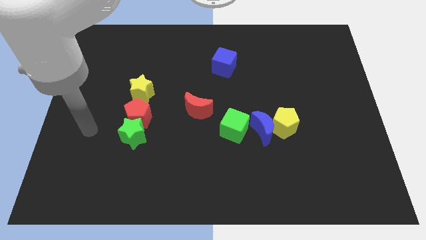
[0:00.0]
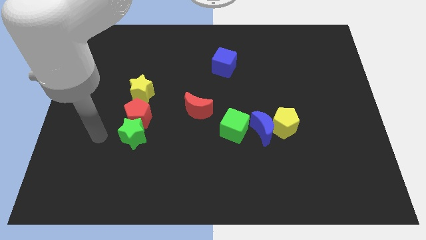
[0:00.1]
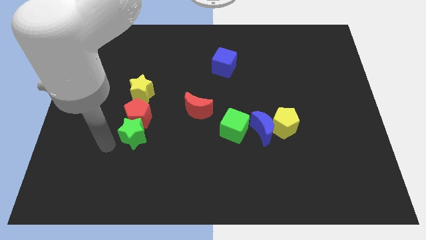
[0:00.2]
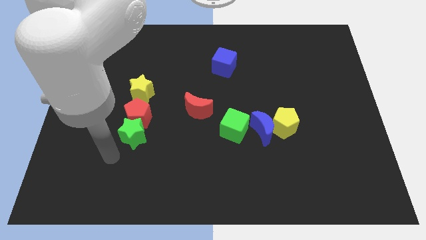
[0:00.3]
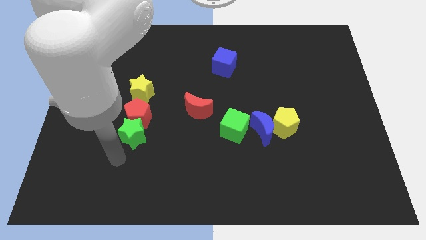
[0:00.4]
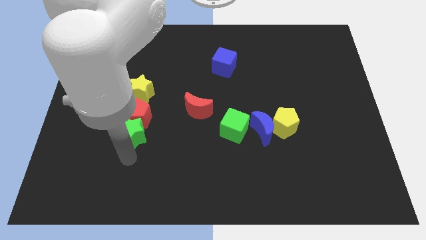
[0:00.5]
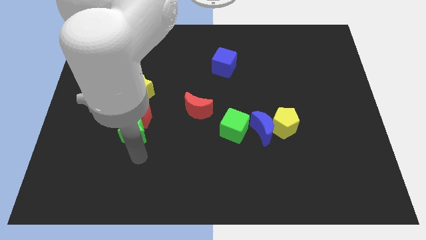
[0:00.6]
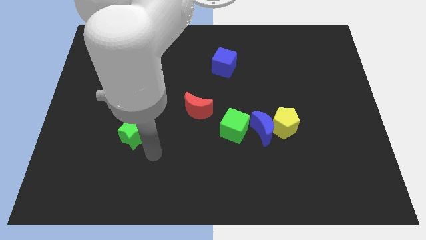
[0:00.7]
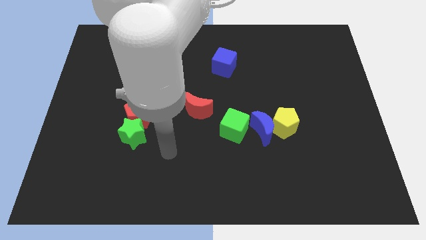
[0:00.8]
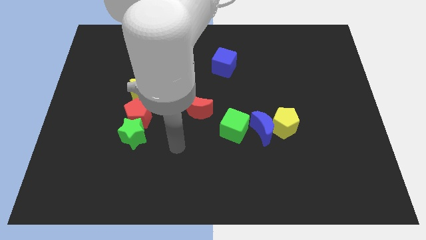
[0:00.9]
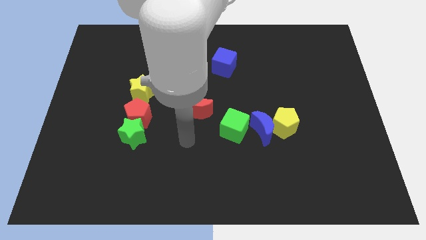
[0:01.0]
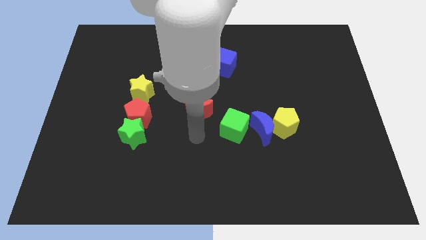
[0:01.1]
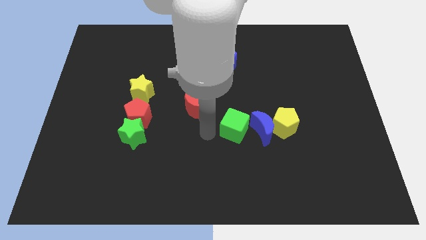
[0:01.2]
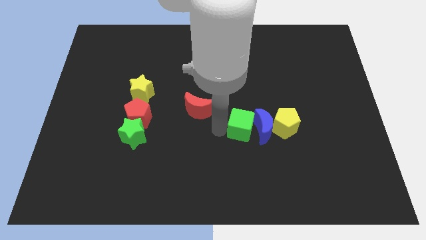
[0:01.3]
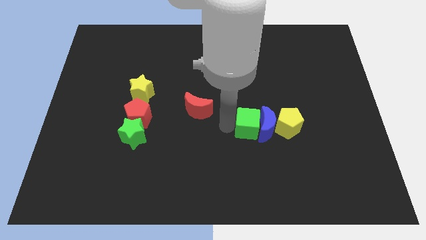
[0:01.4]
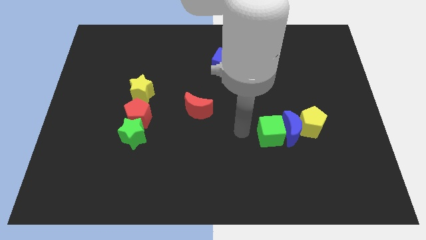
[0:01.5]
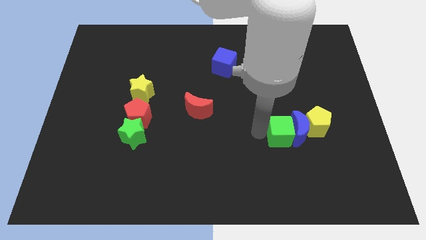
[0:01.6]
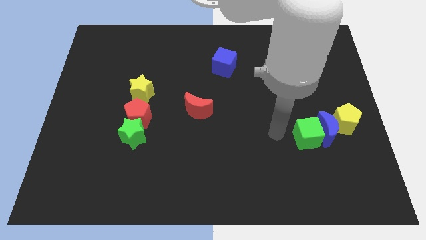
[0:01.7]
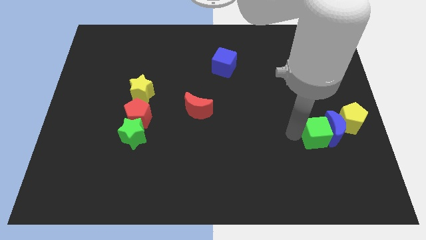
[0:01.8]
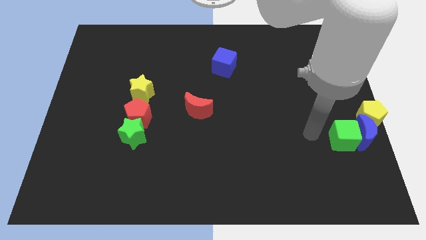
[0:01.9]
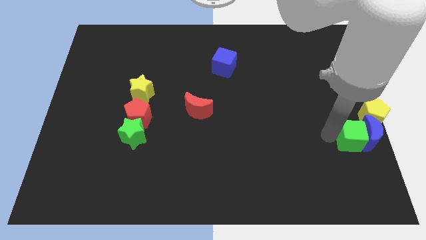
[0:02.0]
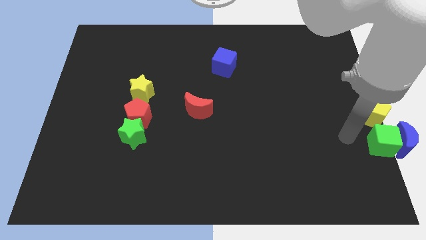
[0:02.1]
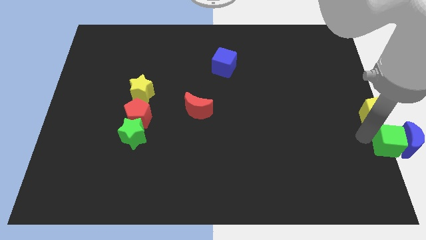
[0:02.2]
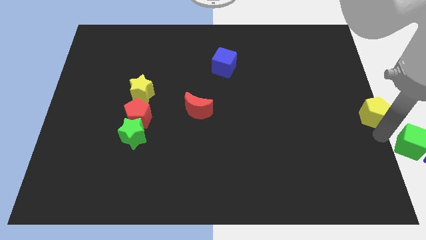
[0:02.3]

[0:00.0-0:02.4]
separate the yellow pentagon from the blue moon

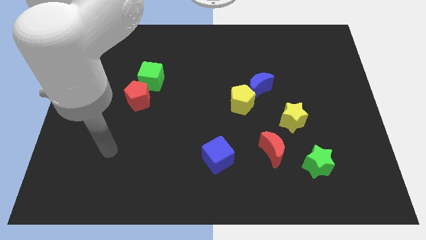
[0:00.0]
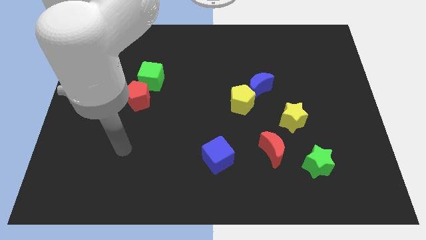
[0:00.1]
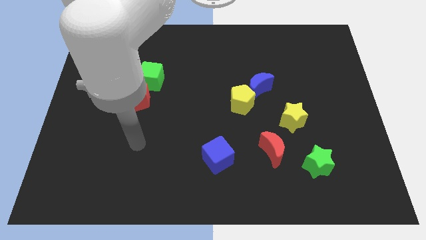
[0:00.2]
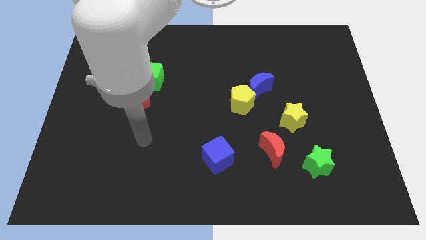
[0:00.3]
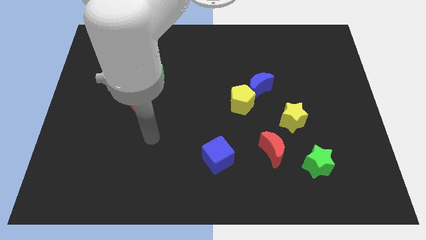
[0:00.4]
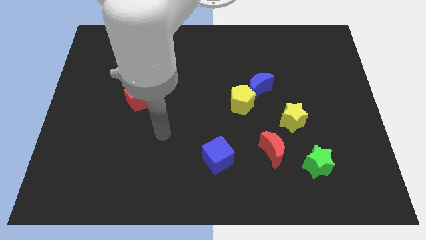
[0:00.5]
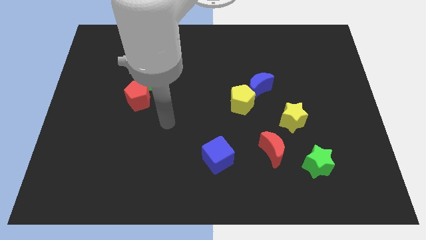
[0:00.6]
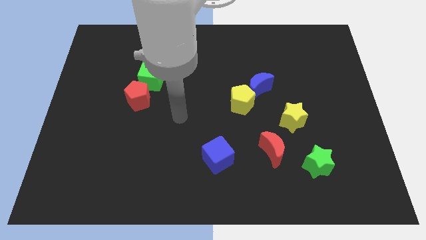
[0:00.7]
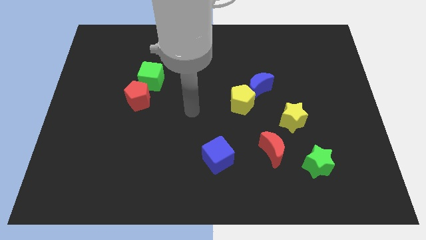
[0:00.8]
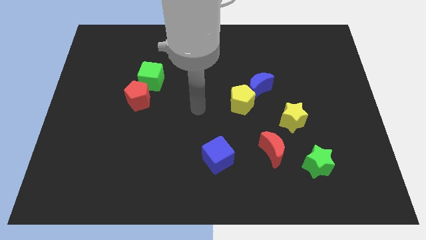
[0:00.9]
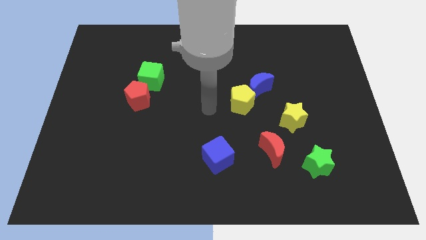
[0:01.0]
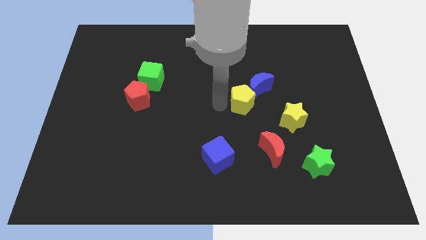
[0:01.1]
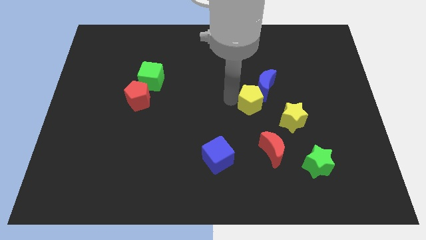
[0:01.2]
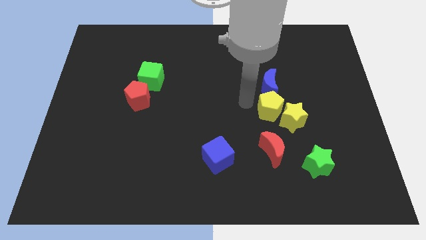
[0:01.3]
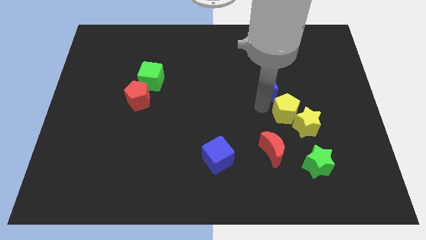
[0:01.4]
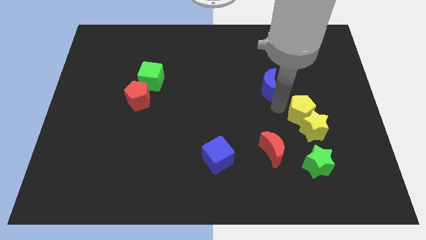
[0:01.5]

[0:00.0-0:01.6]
separate the blue moon from the yellow pentagon

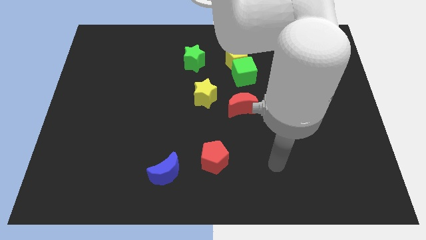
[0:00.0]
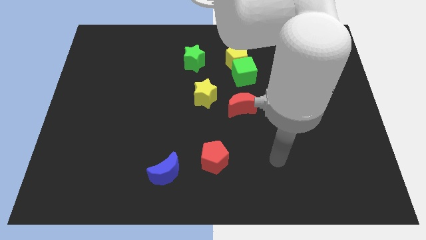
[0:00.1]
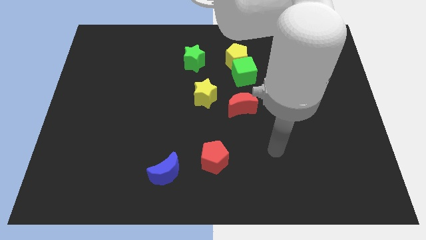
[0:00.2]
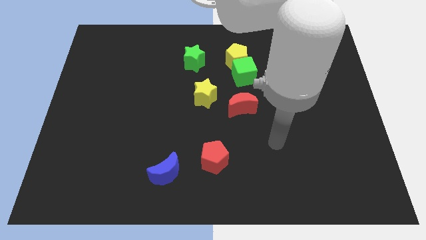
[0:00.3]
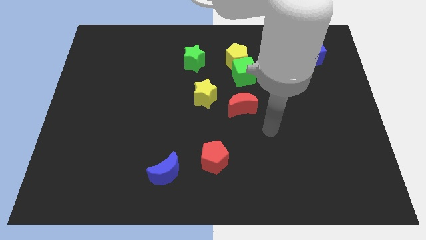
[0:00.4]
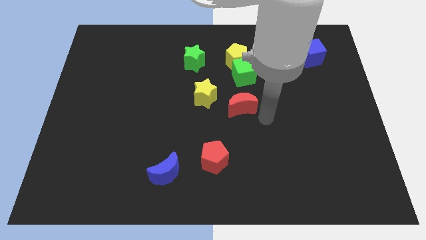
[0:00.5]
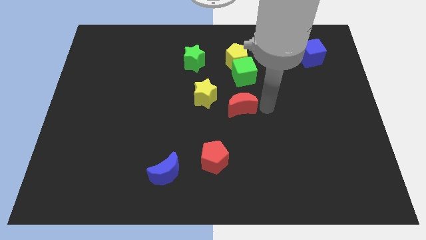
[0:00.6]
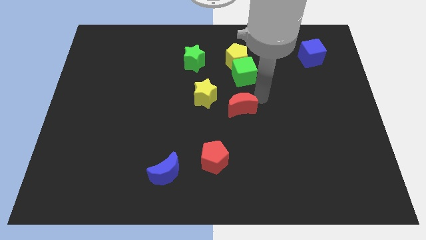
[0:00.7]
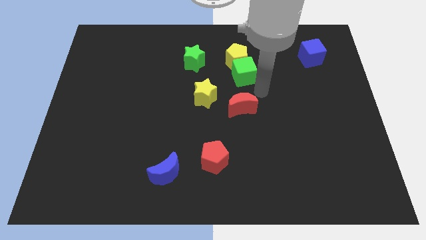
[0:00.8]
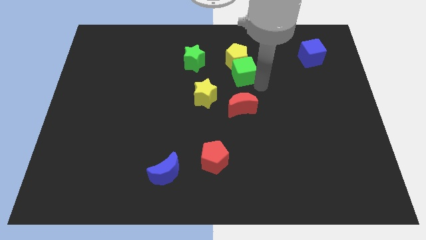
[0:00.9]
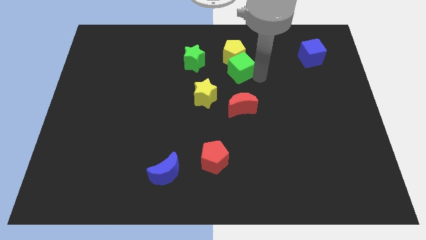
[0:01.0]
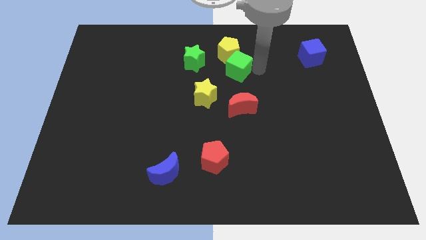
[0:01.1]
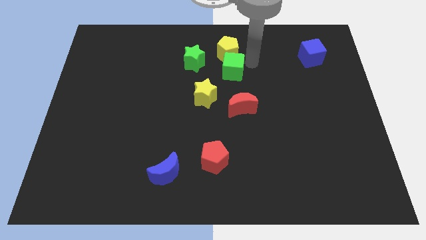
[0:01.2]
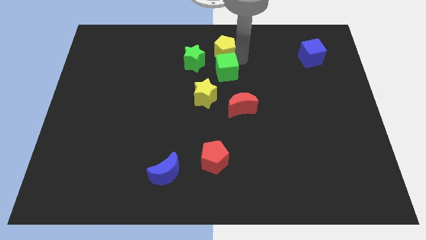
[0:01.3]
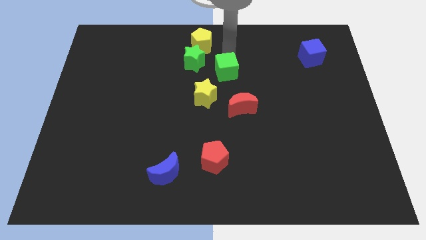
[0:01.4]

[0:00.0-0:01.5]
separate the green cube from the yellow pentagon

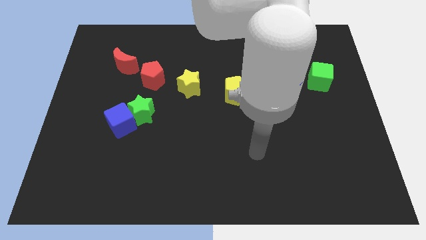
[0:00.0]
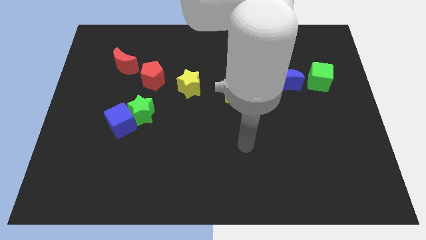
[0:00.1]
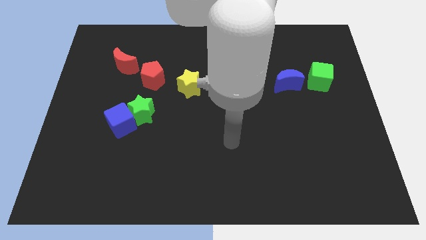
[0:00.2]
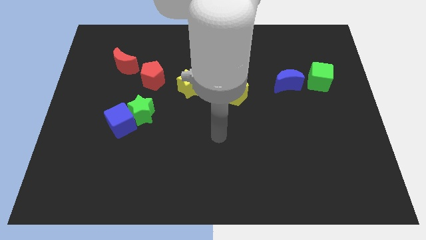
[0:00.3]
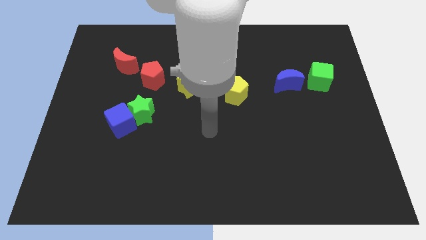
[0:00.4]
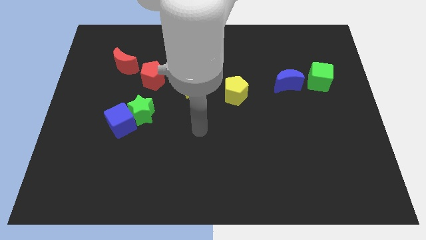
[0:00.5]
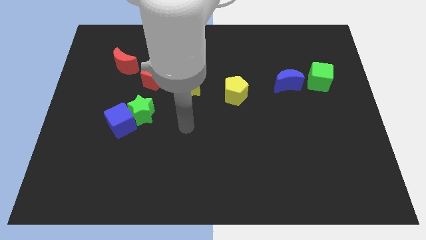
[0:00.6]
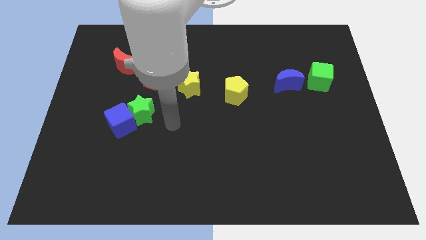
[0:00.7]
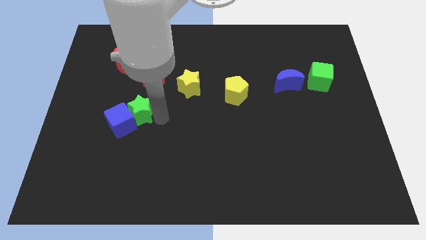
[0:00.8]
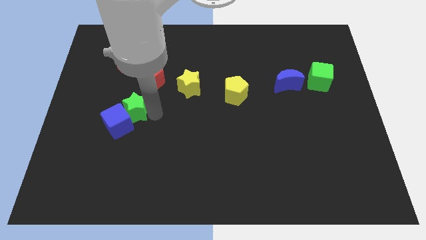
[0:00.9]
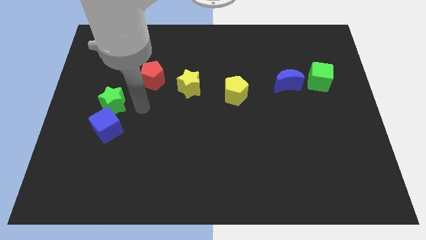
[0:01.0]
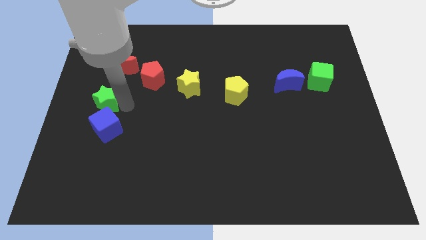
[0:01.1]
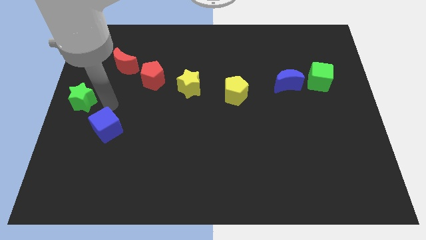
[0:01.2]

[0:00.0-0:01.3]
pull the blue cube apart from the green star

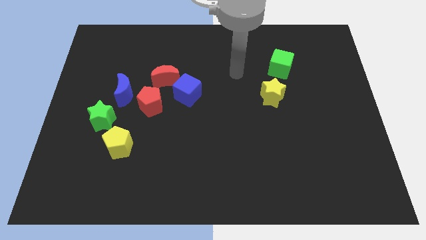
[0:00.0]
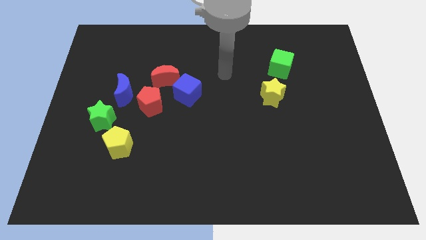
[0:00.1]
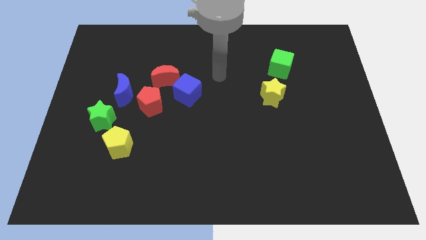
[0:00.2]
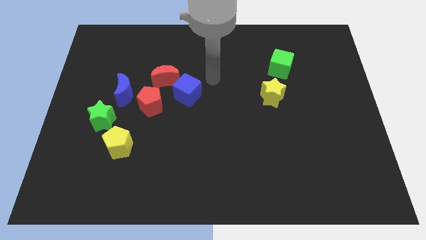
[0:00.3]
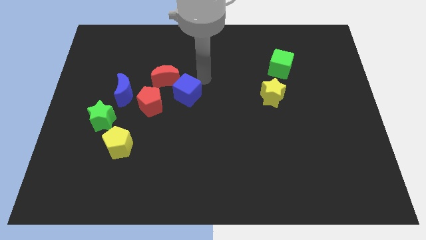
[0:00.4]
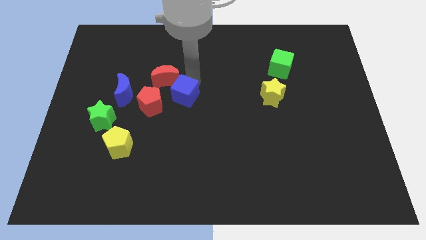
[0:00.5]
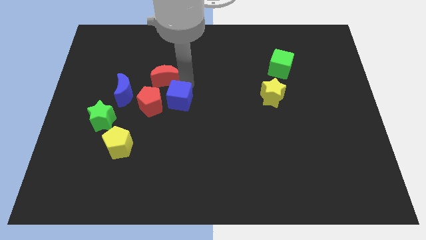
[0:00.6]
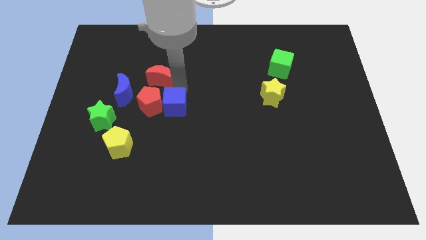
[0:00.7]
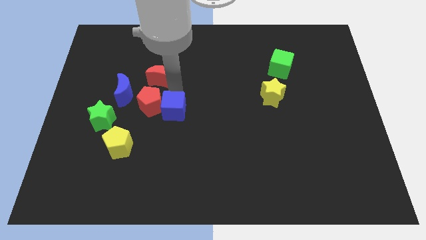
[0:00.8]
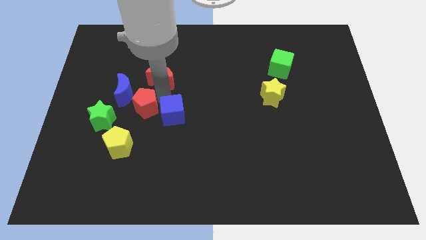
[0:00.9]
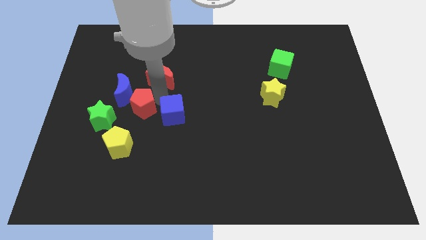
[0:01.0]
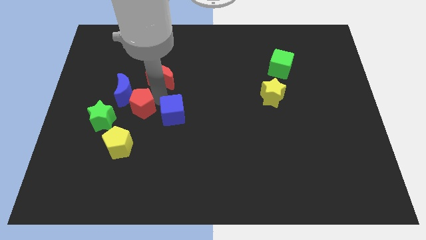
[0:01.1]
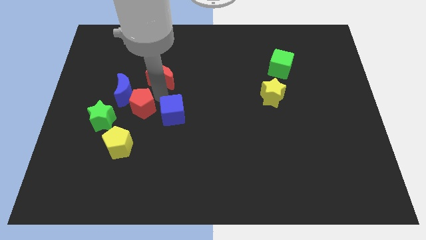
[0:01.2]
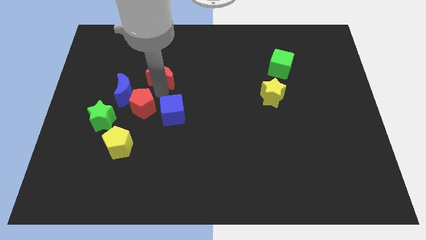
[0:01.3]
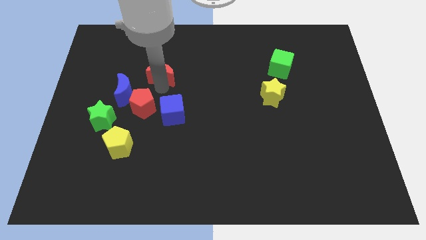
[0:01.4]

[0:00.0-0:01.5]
separate the red moon from the blue cube and red pentagon

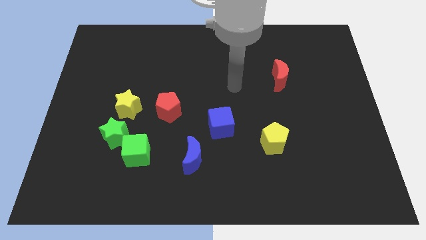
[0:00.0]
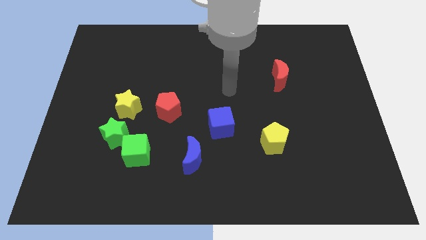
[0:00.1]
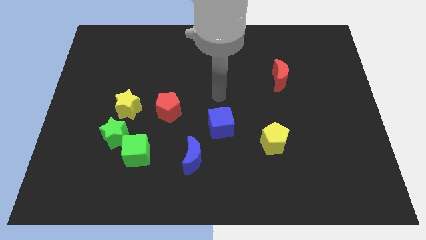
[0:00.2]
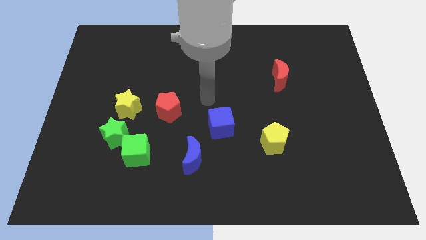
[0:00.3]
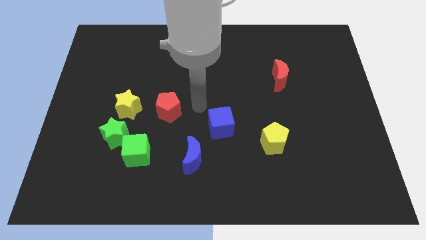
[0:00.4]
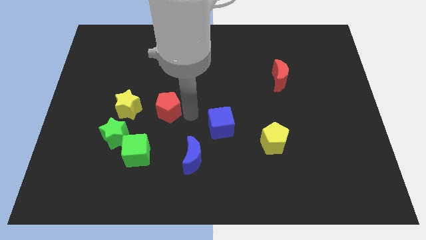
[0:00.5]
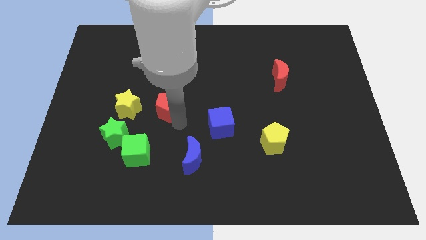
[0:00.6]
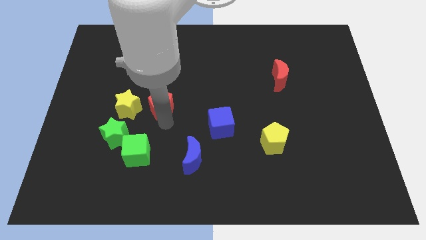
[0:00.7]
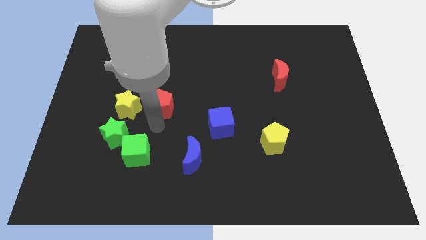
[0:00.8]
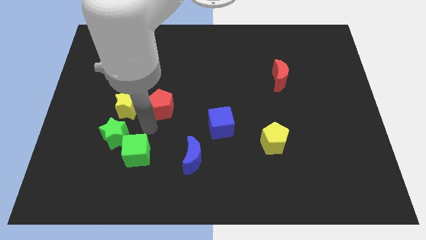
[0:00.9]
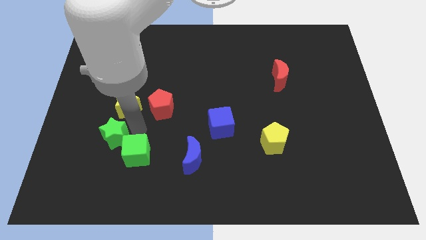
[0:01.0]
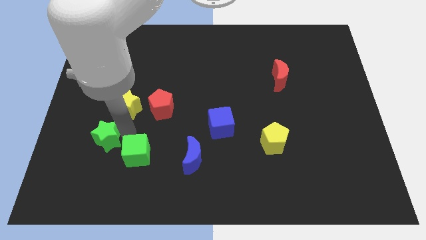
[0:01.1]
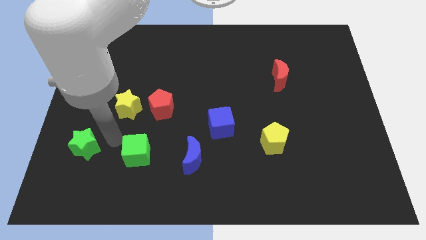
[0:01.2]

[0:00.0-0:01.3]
pull the green cube apart from the green star
